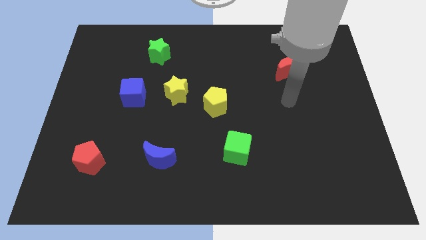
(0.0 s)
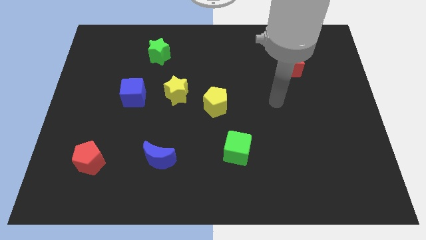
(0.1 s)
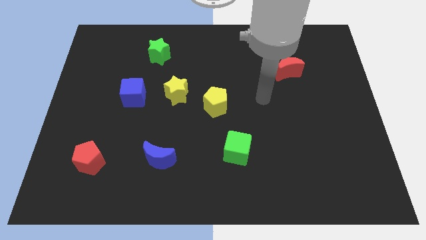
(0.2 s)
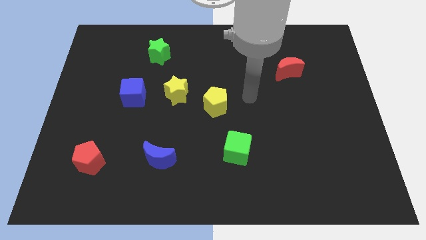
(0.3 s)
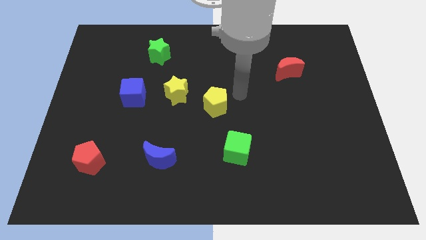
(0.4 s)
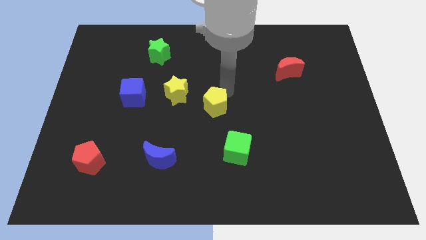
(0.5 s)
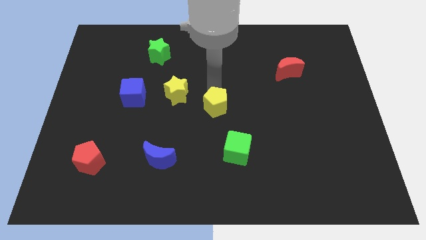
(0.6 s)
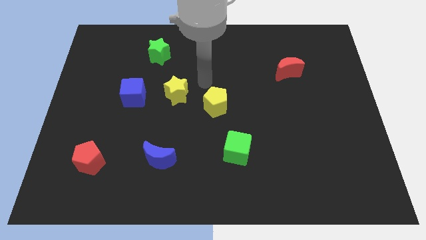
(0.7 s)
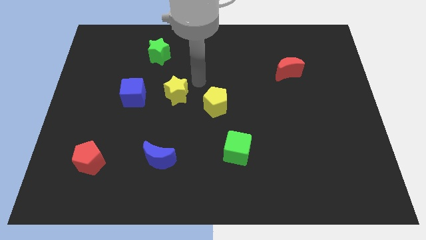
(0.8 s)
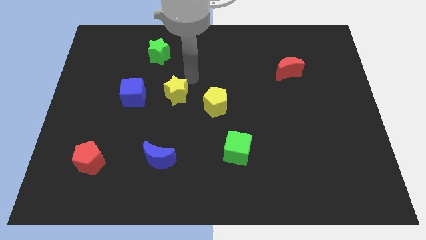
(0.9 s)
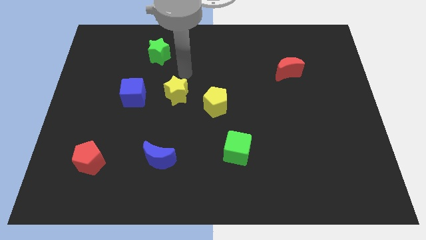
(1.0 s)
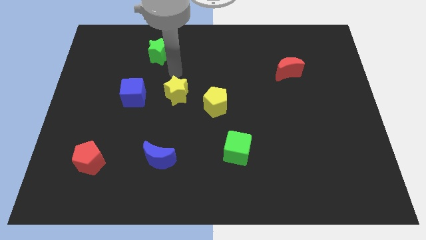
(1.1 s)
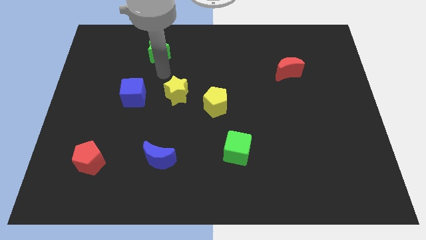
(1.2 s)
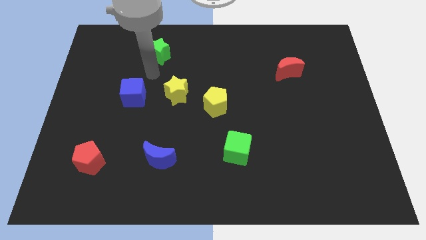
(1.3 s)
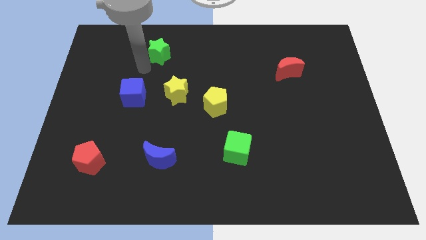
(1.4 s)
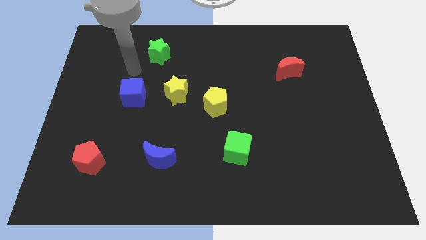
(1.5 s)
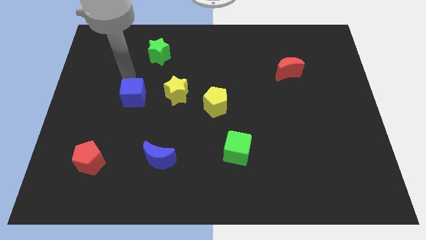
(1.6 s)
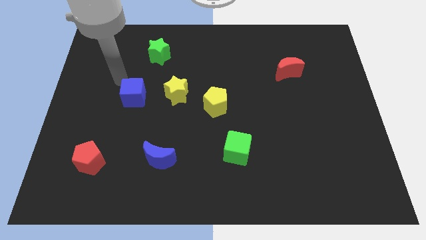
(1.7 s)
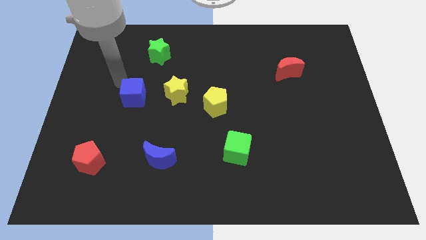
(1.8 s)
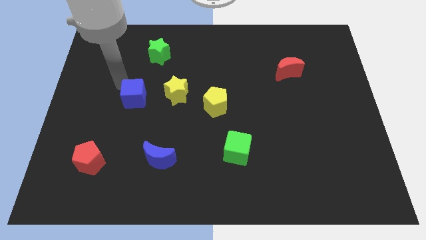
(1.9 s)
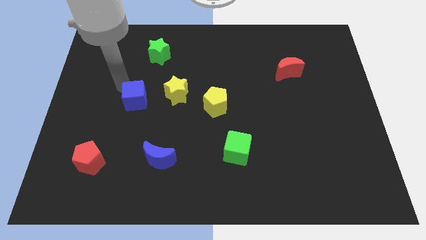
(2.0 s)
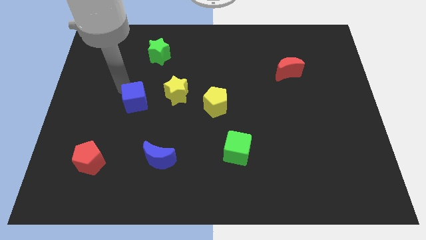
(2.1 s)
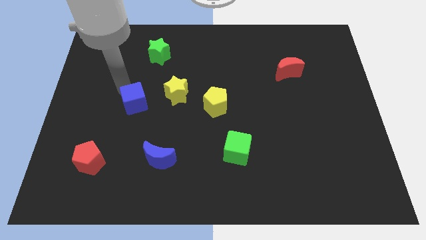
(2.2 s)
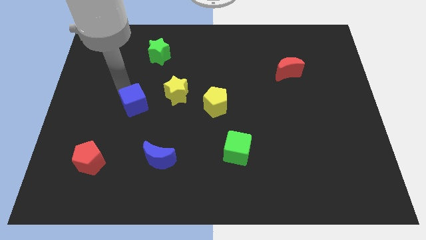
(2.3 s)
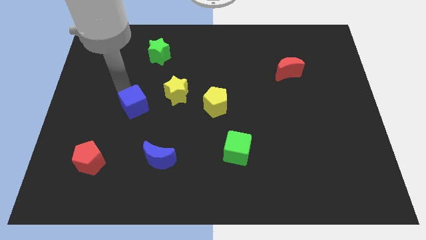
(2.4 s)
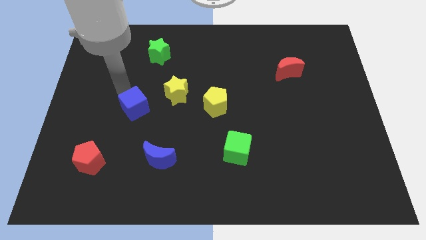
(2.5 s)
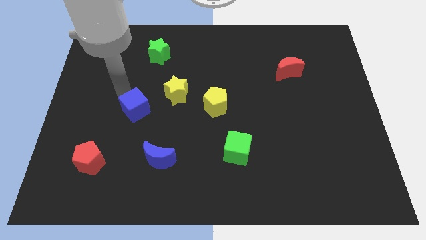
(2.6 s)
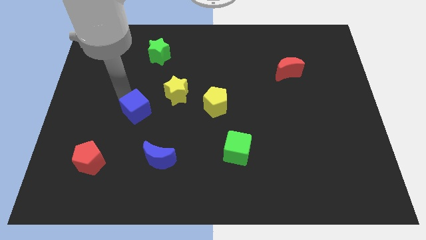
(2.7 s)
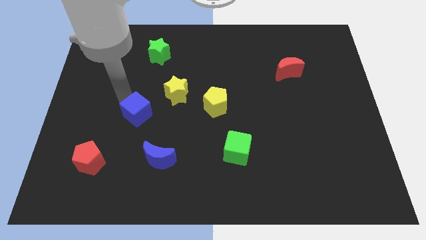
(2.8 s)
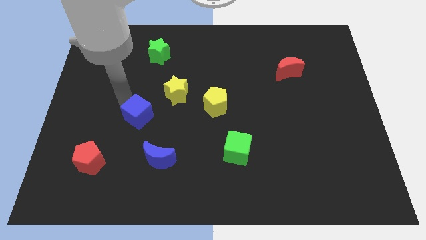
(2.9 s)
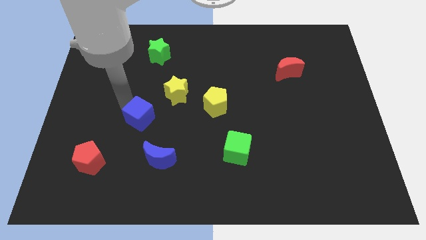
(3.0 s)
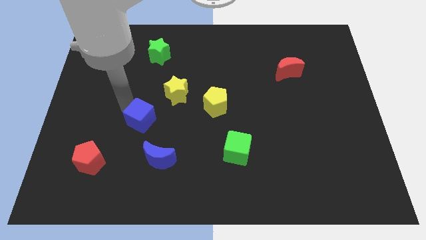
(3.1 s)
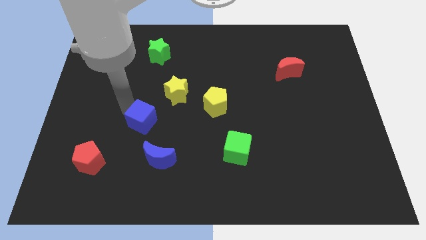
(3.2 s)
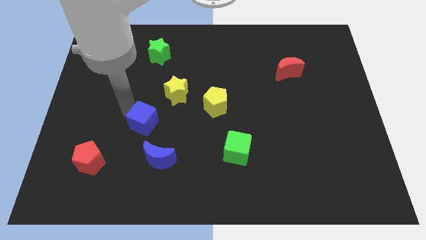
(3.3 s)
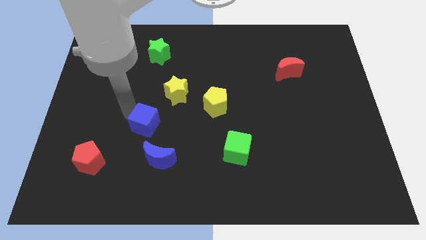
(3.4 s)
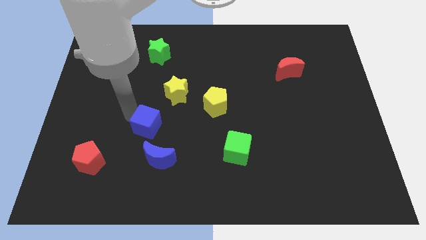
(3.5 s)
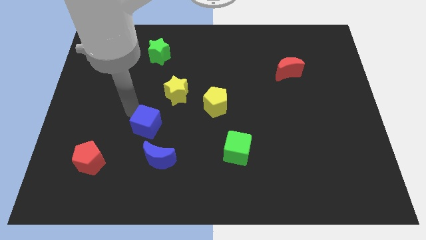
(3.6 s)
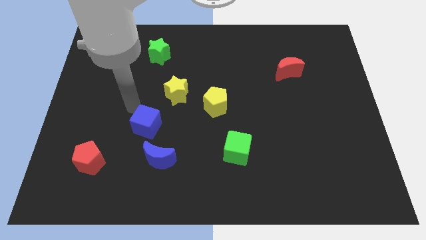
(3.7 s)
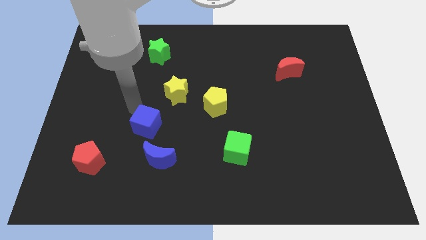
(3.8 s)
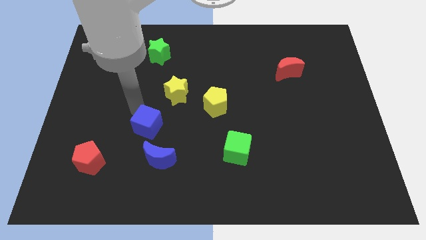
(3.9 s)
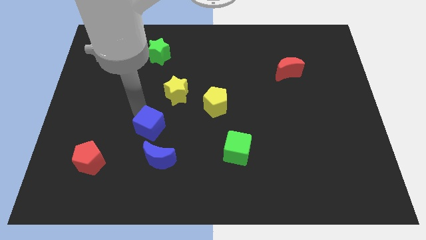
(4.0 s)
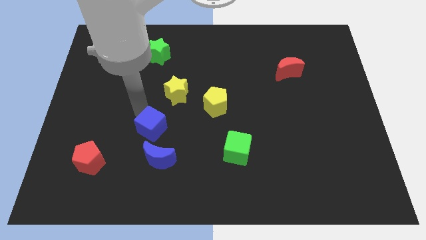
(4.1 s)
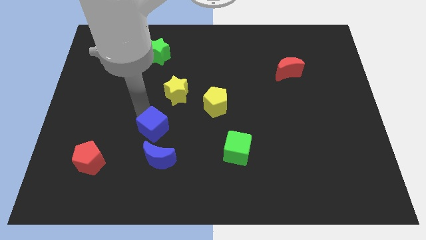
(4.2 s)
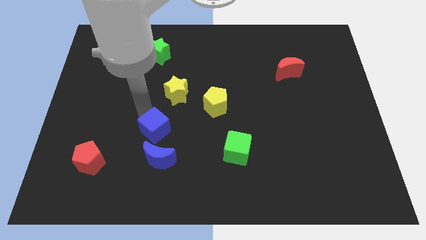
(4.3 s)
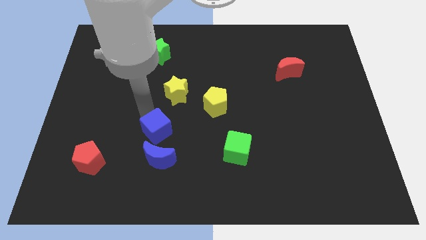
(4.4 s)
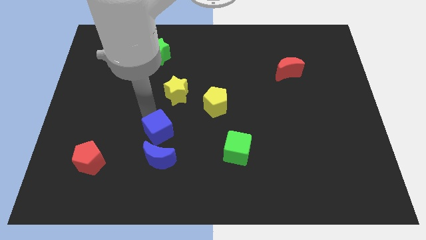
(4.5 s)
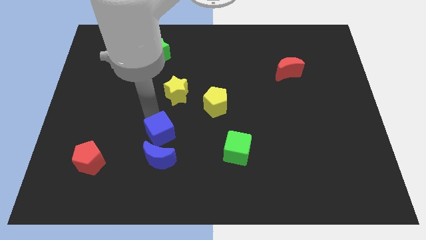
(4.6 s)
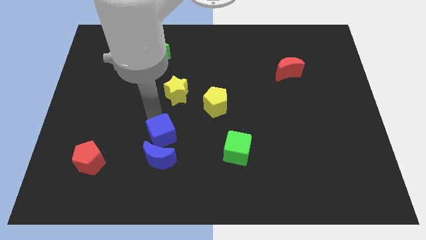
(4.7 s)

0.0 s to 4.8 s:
push the blue cube next to the blue moon

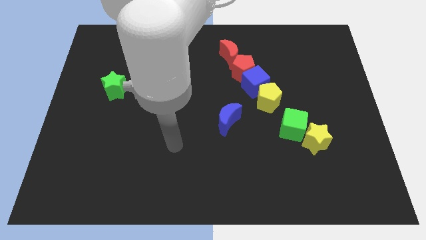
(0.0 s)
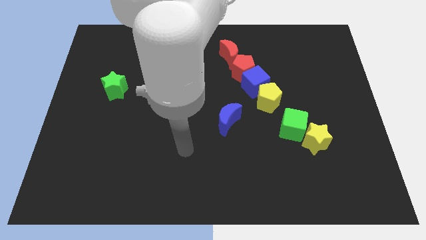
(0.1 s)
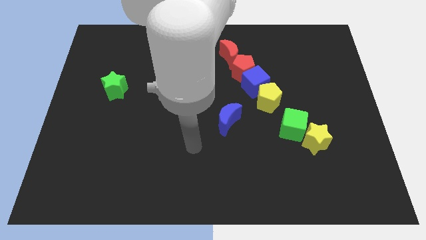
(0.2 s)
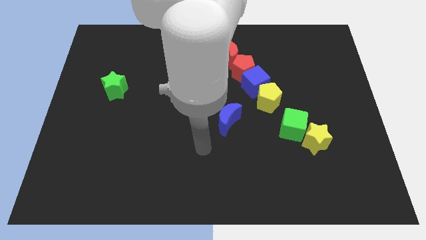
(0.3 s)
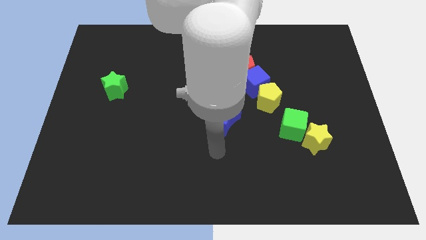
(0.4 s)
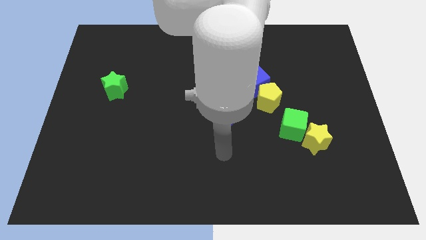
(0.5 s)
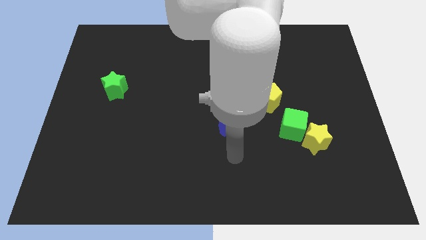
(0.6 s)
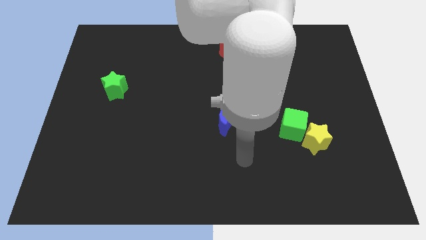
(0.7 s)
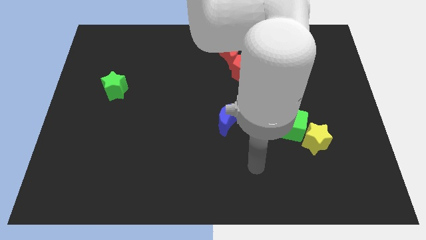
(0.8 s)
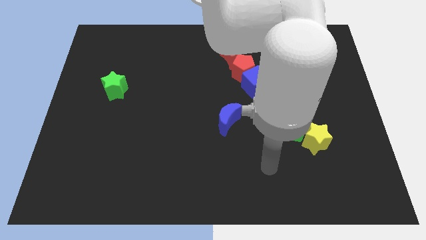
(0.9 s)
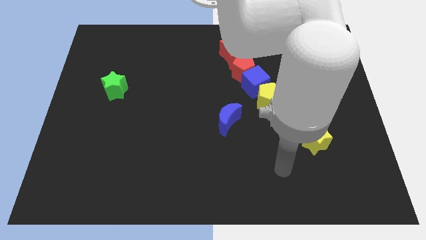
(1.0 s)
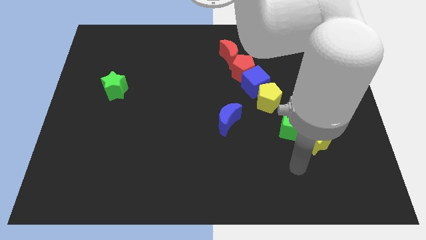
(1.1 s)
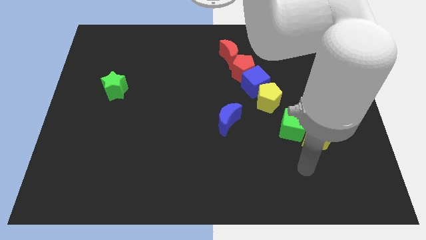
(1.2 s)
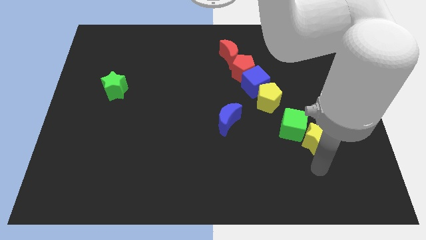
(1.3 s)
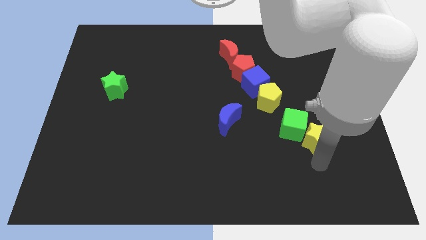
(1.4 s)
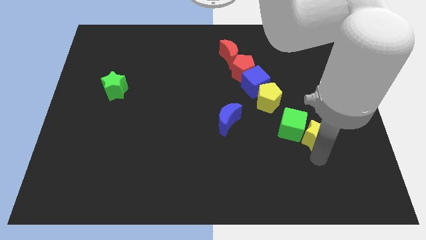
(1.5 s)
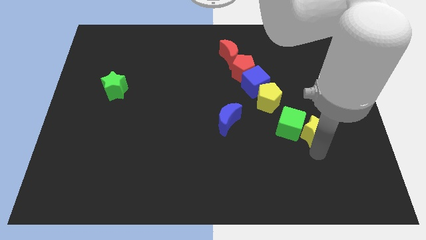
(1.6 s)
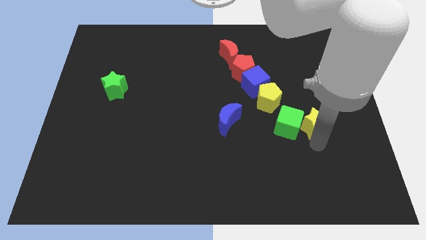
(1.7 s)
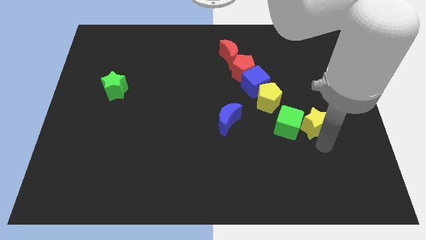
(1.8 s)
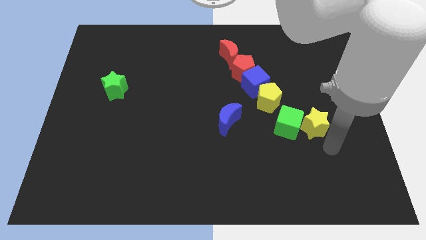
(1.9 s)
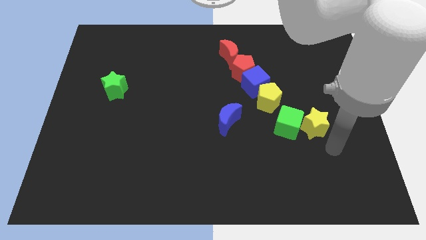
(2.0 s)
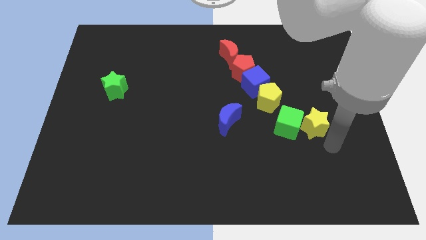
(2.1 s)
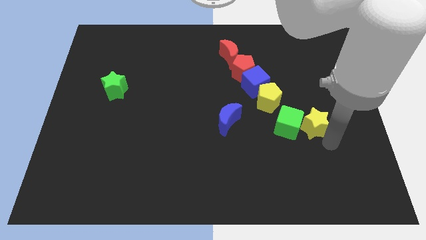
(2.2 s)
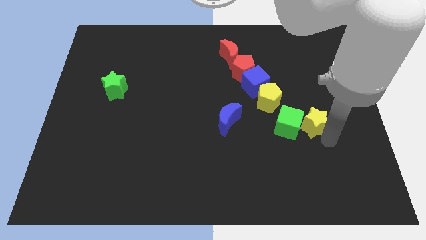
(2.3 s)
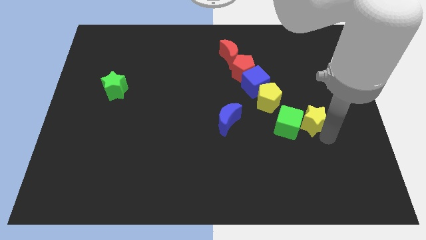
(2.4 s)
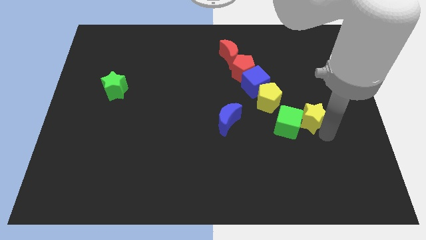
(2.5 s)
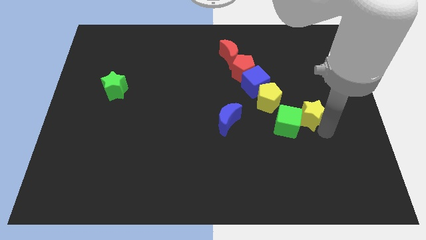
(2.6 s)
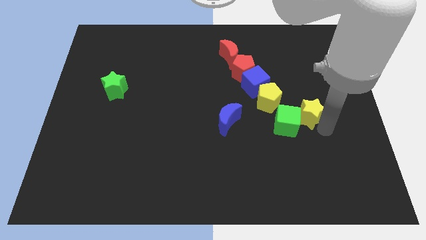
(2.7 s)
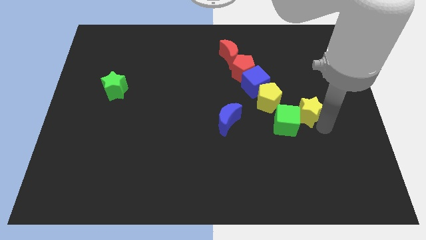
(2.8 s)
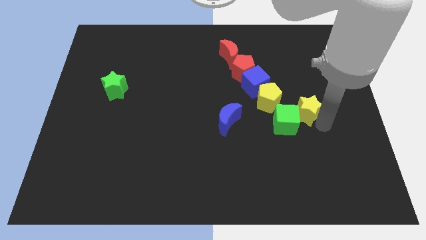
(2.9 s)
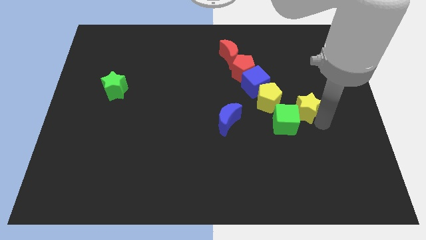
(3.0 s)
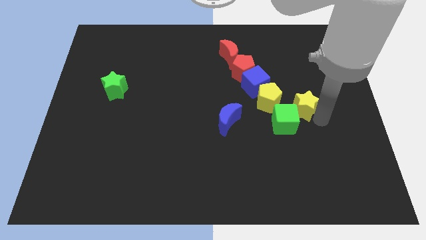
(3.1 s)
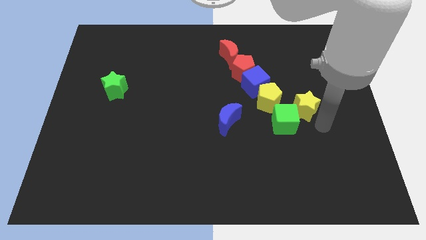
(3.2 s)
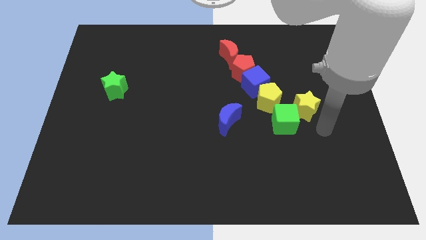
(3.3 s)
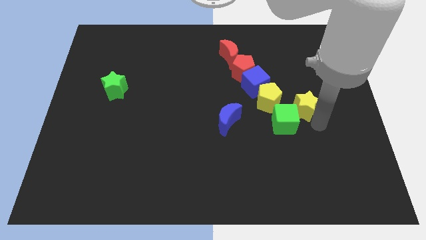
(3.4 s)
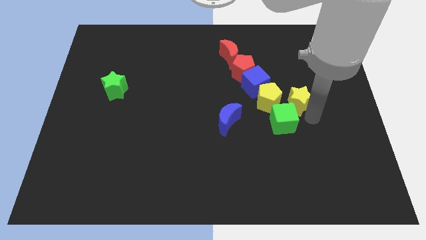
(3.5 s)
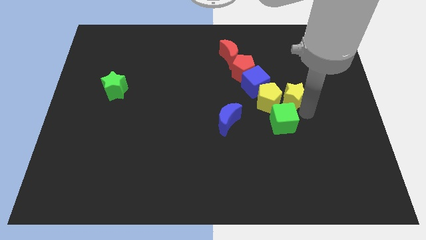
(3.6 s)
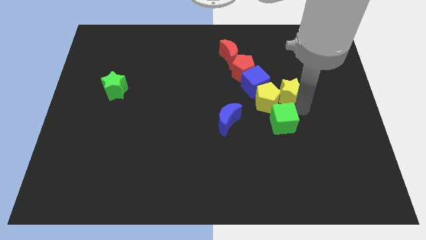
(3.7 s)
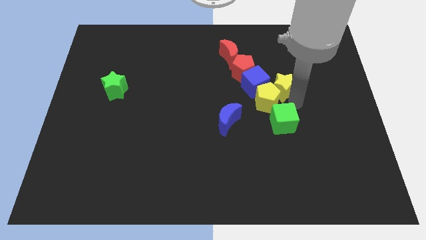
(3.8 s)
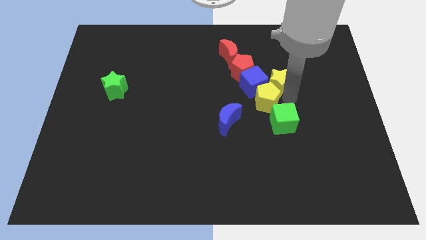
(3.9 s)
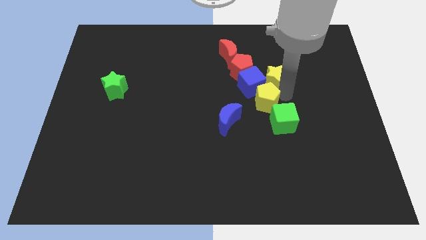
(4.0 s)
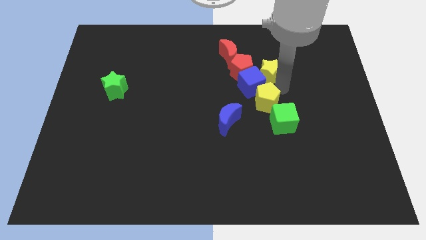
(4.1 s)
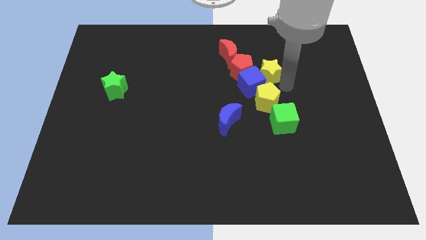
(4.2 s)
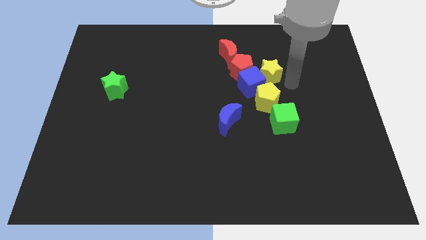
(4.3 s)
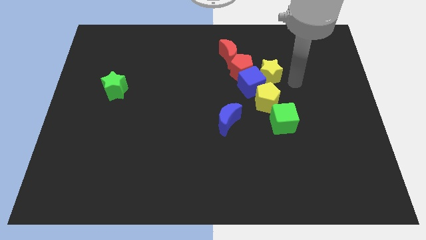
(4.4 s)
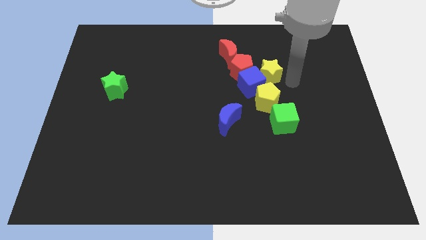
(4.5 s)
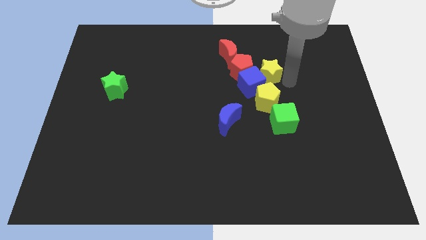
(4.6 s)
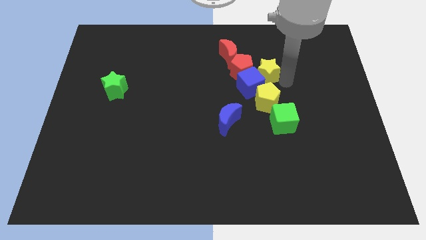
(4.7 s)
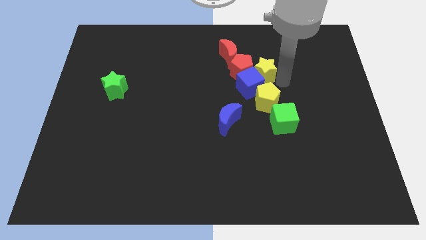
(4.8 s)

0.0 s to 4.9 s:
push the yellow star next to the red pentagon
